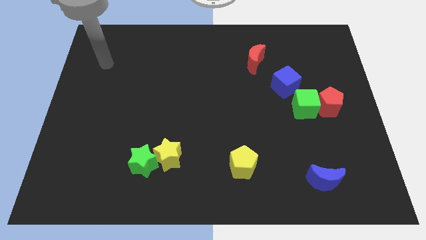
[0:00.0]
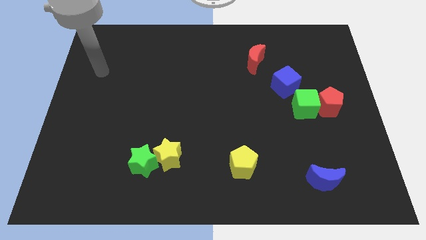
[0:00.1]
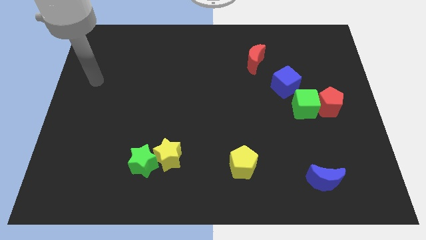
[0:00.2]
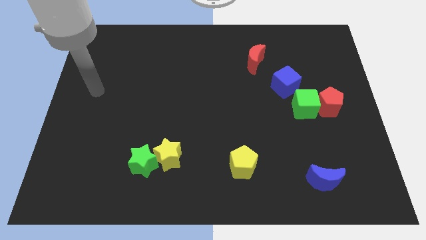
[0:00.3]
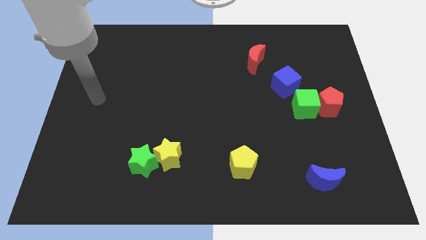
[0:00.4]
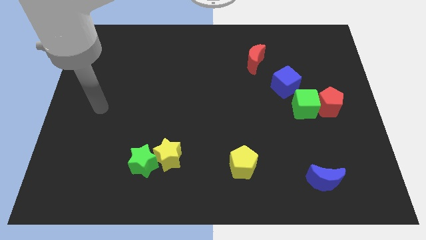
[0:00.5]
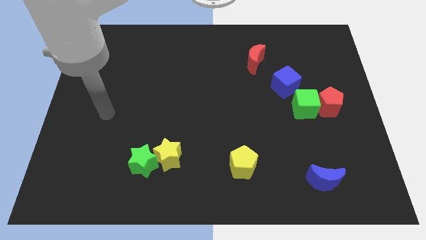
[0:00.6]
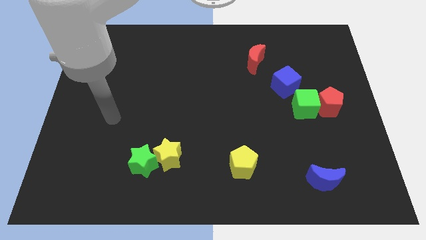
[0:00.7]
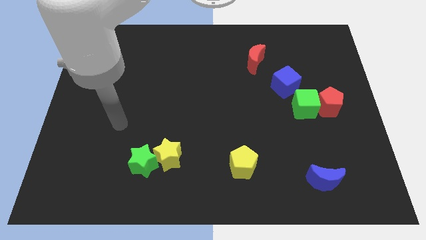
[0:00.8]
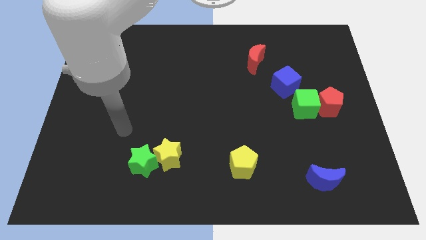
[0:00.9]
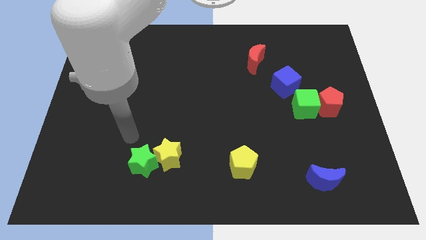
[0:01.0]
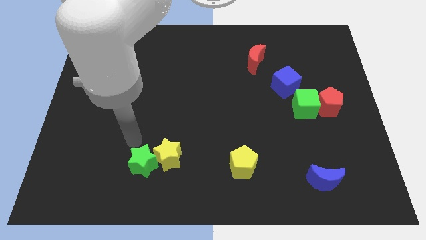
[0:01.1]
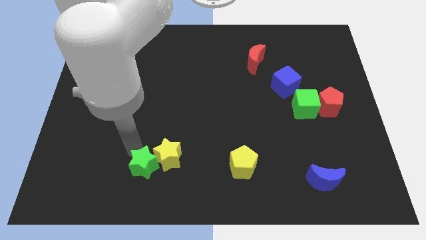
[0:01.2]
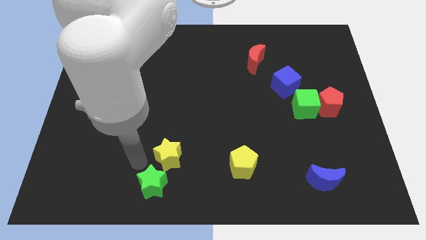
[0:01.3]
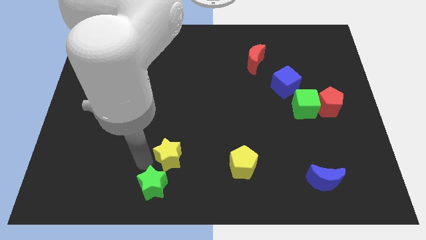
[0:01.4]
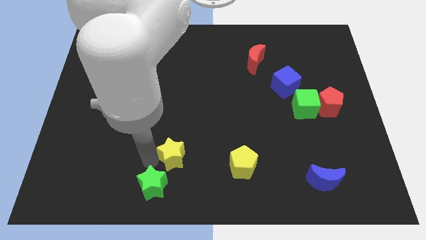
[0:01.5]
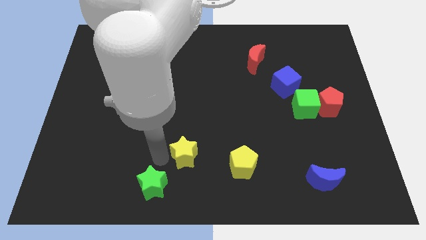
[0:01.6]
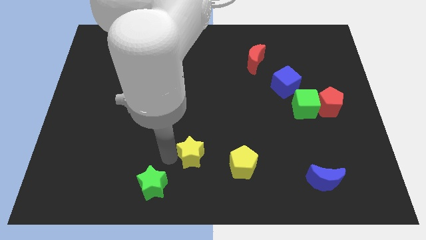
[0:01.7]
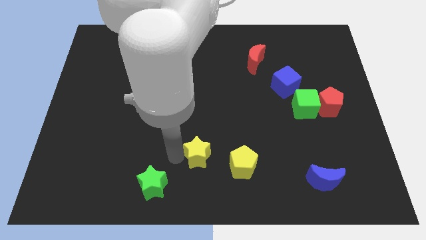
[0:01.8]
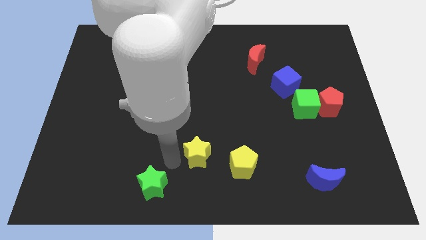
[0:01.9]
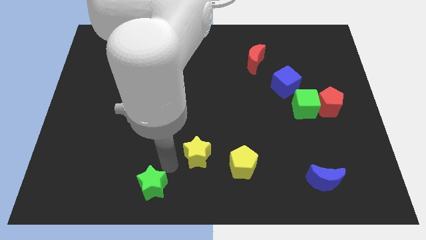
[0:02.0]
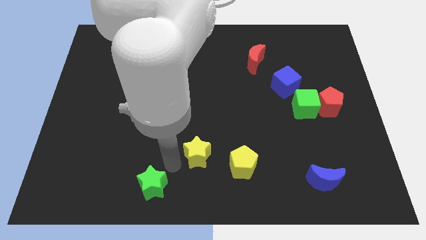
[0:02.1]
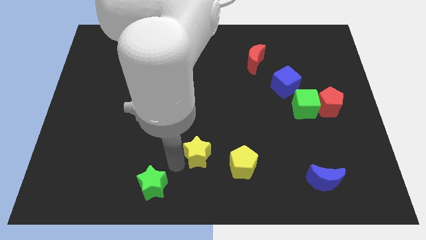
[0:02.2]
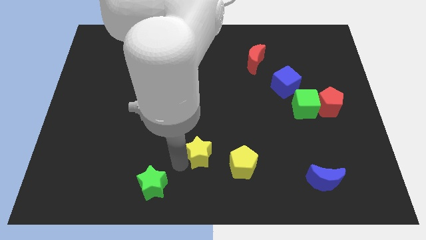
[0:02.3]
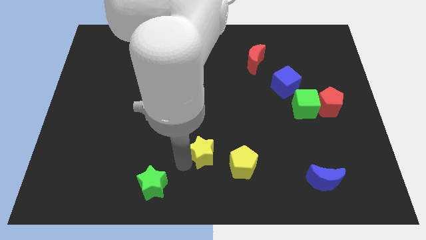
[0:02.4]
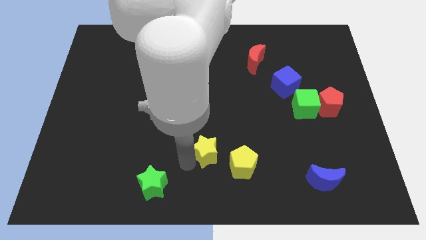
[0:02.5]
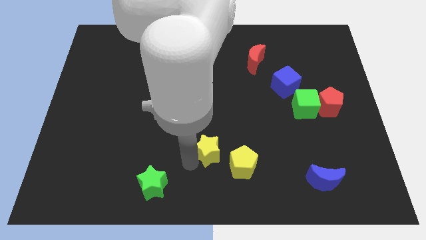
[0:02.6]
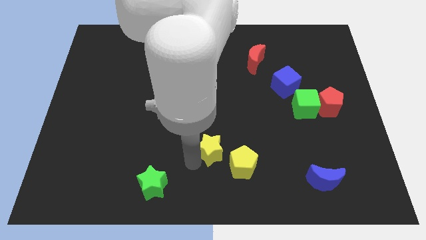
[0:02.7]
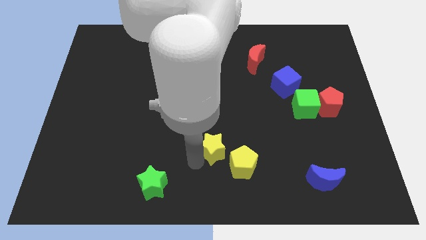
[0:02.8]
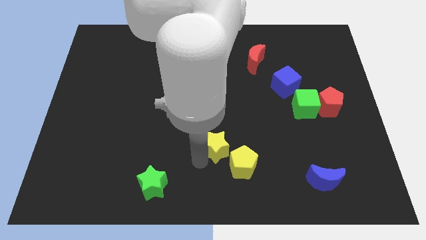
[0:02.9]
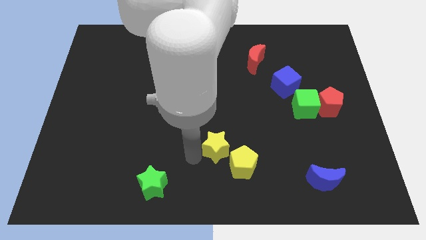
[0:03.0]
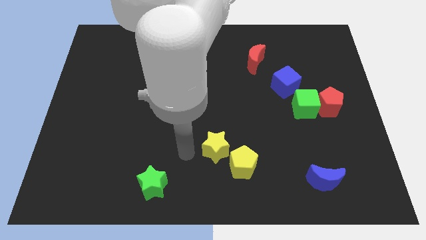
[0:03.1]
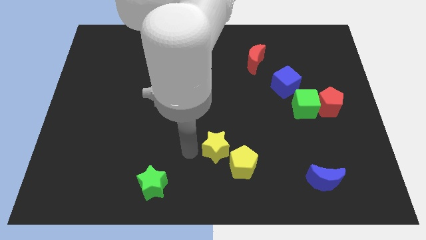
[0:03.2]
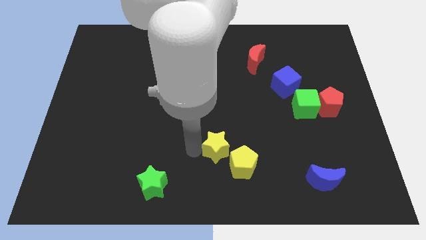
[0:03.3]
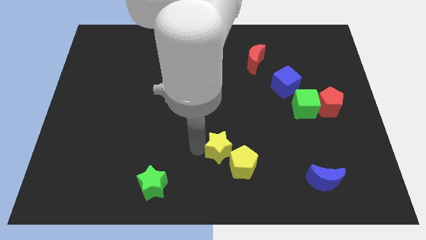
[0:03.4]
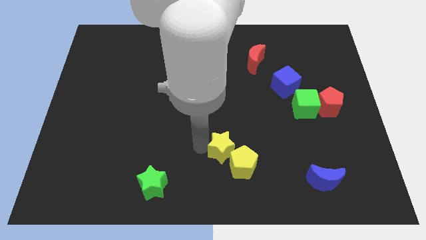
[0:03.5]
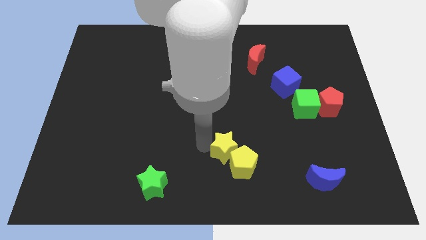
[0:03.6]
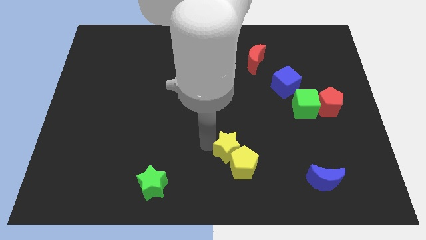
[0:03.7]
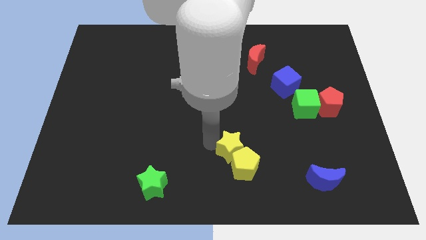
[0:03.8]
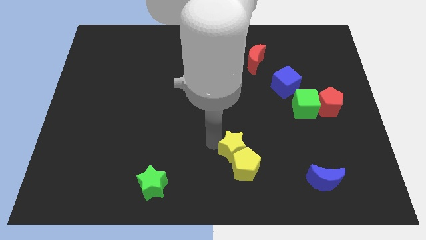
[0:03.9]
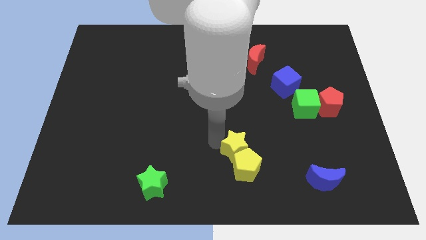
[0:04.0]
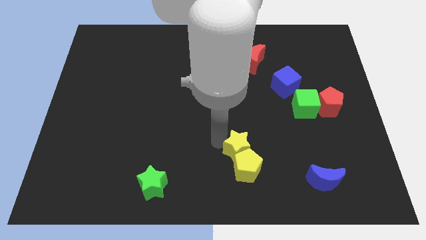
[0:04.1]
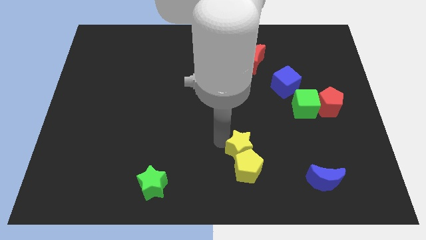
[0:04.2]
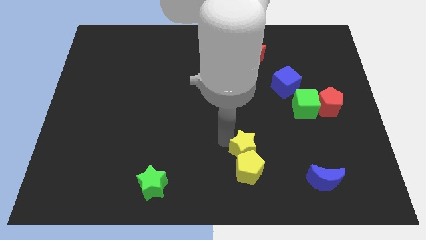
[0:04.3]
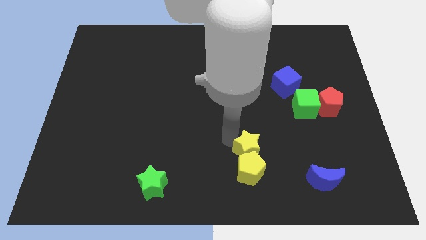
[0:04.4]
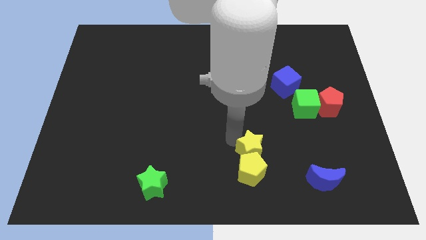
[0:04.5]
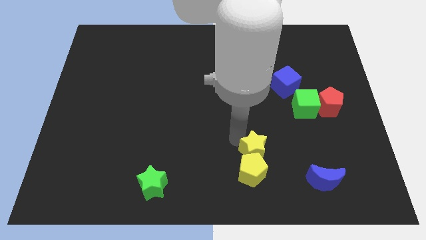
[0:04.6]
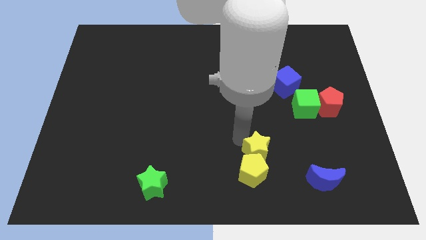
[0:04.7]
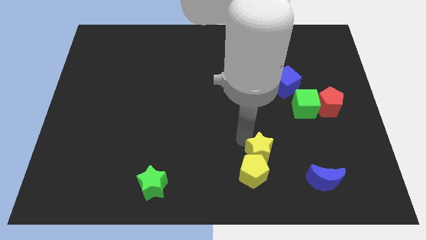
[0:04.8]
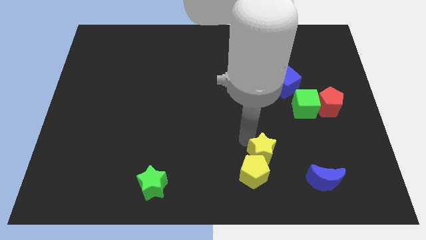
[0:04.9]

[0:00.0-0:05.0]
push the yellow star to the right

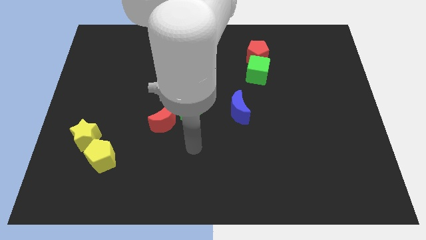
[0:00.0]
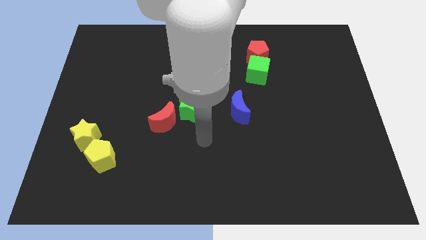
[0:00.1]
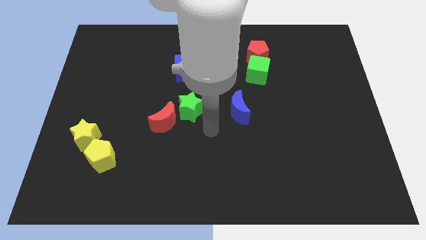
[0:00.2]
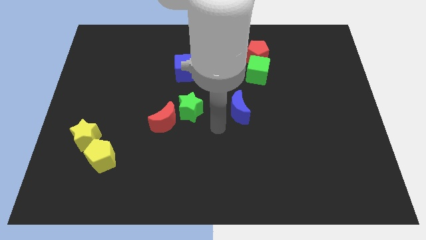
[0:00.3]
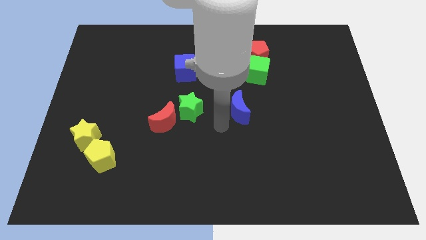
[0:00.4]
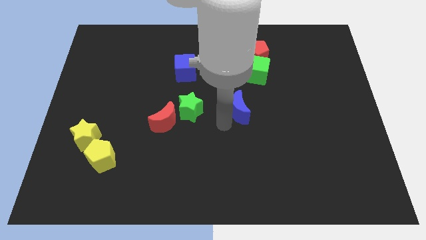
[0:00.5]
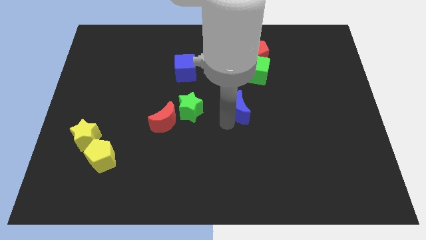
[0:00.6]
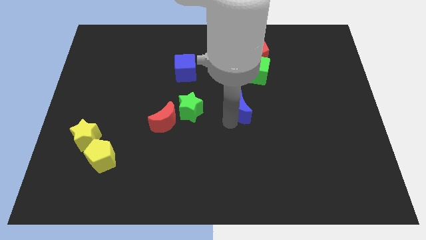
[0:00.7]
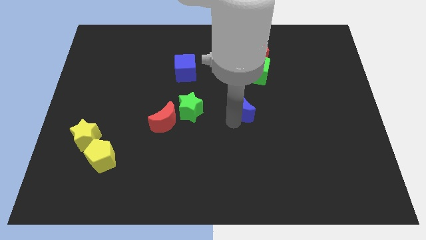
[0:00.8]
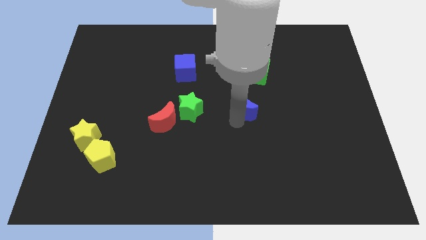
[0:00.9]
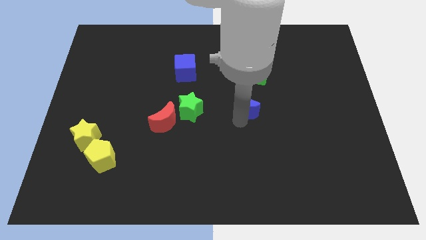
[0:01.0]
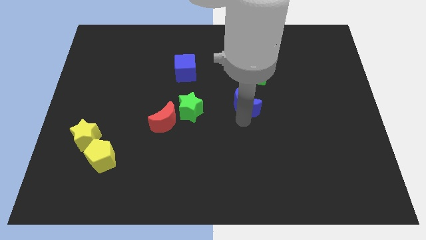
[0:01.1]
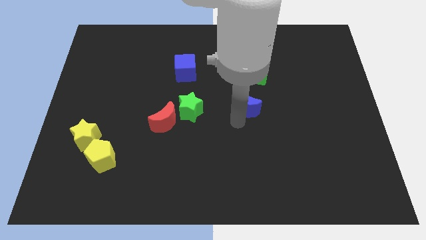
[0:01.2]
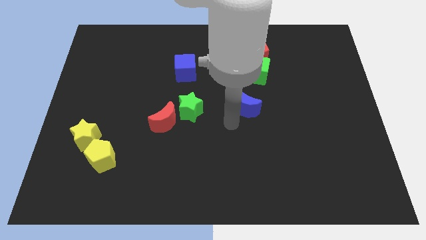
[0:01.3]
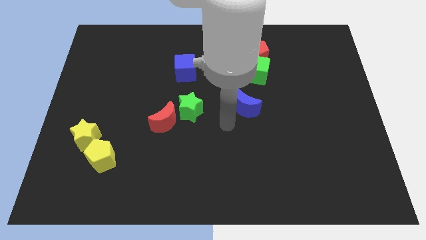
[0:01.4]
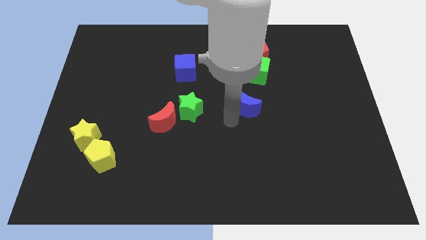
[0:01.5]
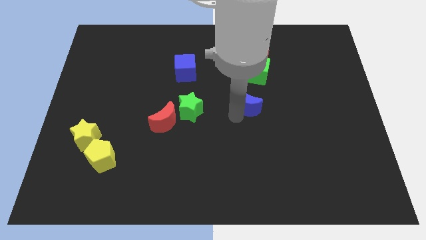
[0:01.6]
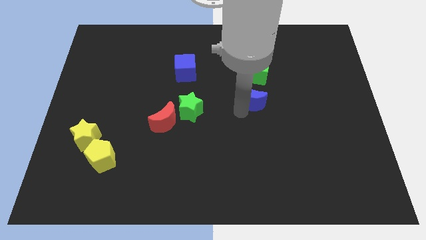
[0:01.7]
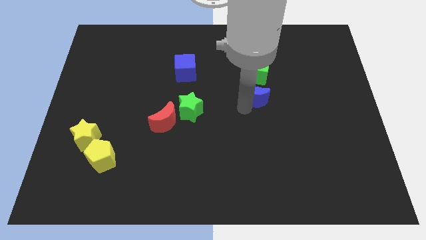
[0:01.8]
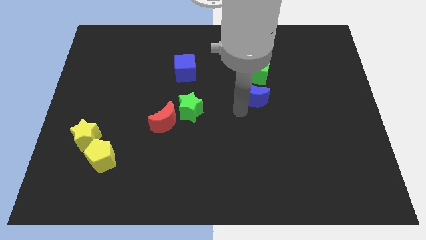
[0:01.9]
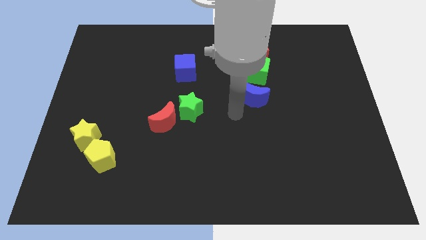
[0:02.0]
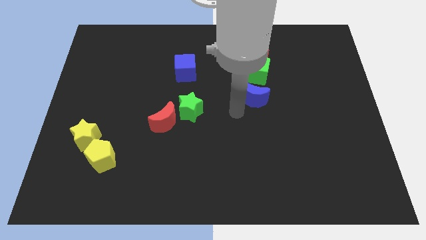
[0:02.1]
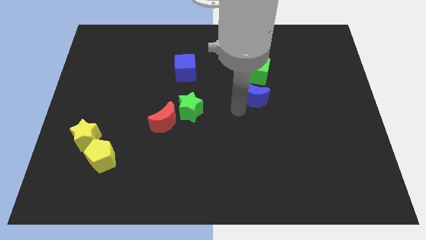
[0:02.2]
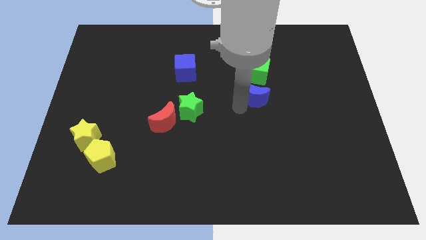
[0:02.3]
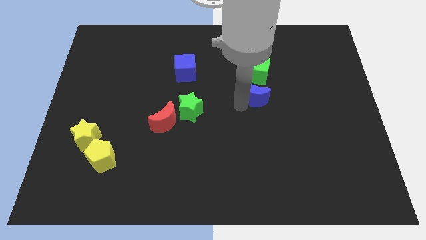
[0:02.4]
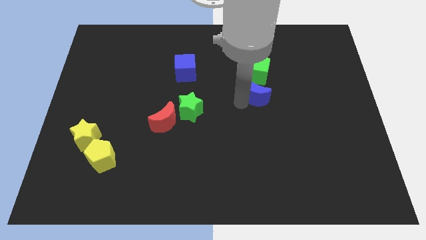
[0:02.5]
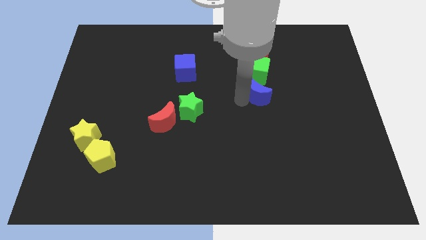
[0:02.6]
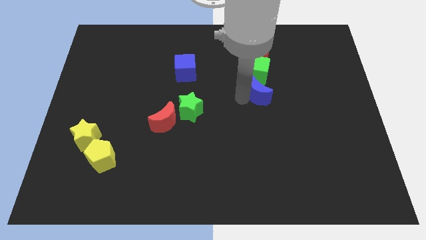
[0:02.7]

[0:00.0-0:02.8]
slide the blue moon upwards and then to the right a bit

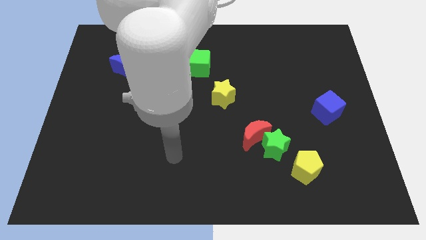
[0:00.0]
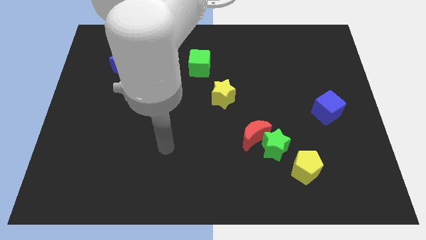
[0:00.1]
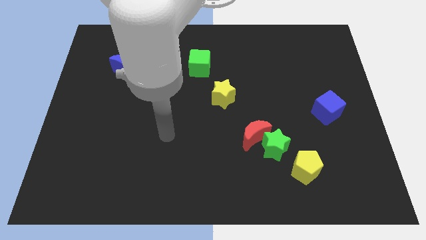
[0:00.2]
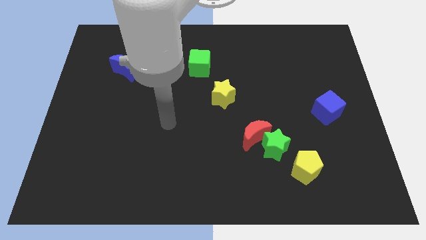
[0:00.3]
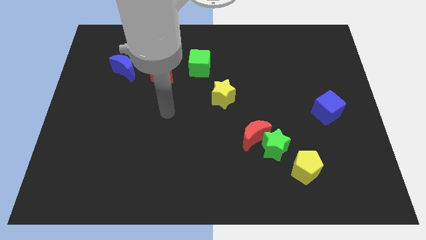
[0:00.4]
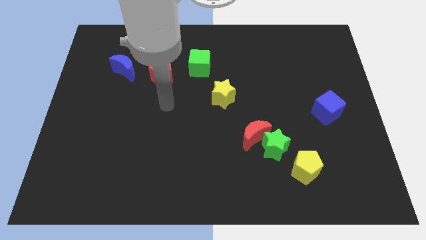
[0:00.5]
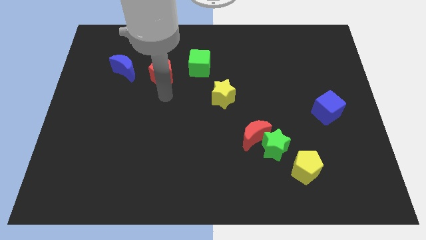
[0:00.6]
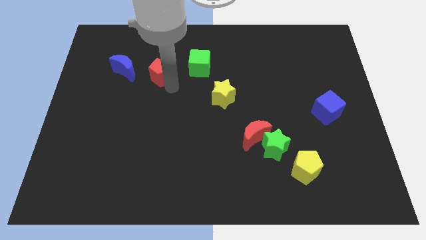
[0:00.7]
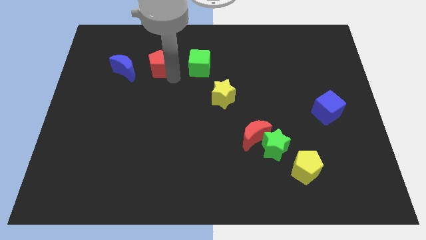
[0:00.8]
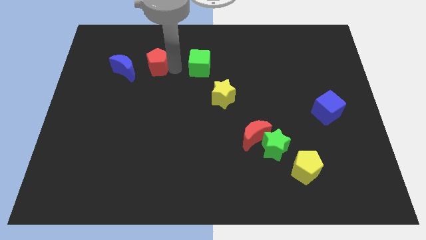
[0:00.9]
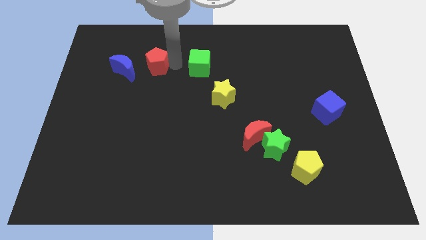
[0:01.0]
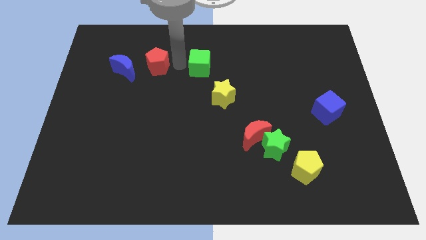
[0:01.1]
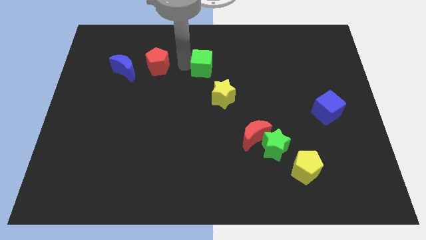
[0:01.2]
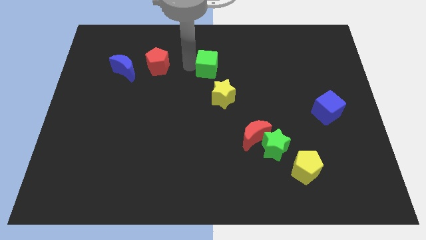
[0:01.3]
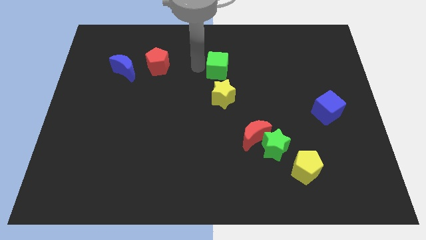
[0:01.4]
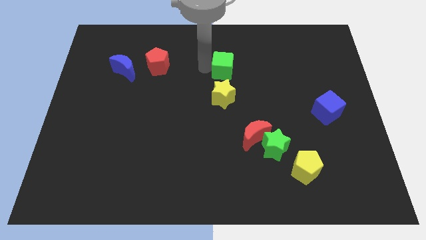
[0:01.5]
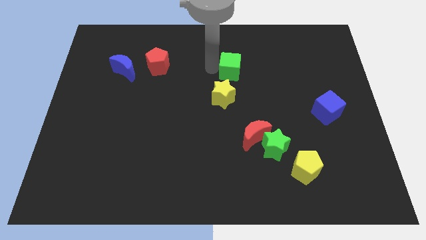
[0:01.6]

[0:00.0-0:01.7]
slide the green cube right a bit
